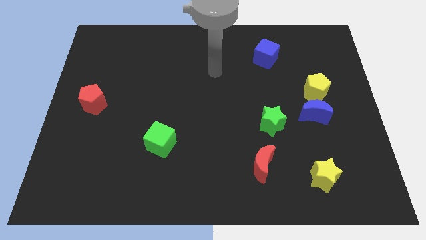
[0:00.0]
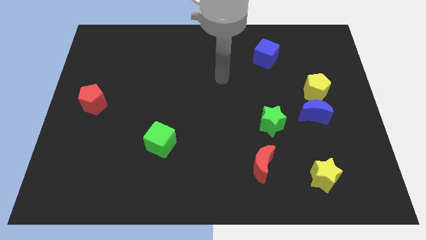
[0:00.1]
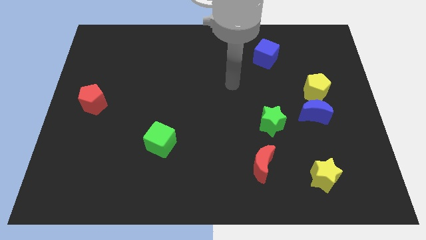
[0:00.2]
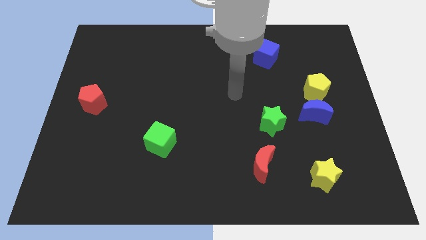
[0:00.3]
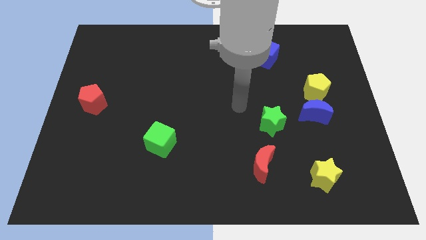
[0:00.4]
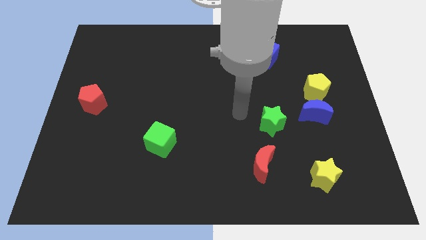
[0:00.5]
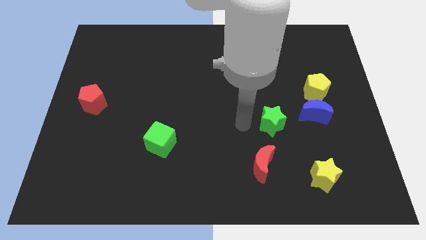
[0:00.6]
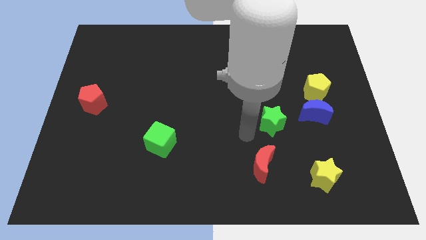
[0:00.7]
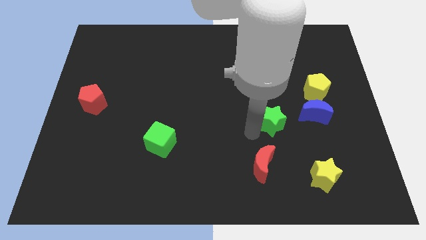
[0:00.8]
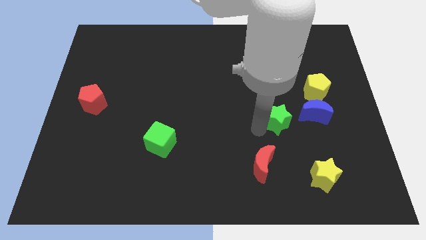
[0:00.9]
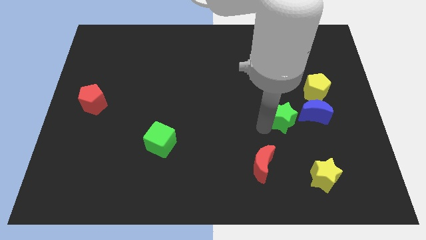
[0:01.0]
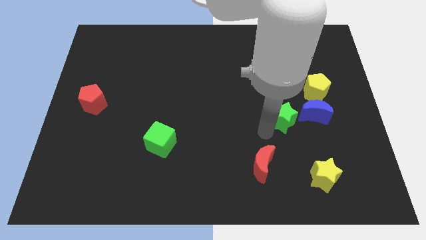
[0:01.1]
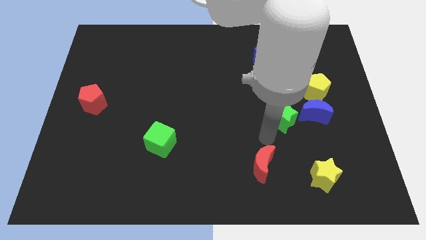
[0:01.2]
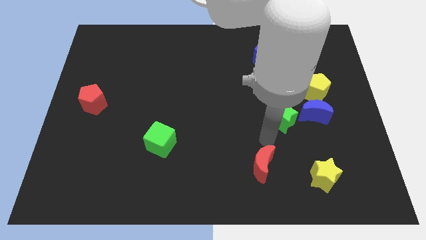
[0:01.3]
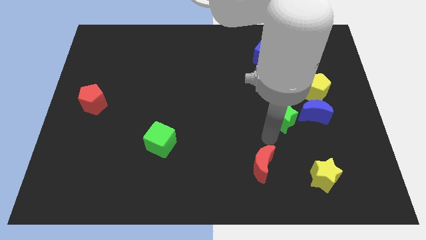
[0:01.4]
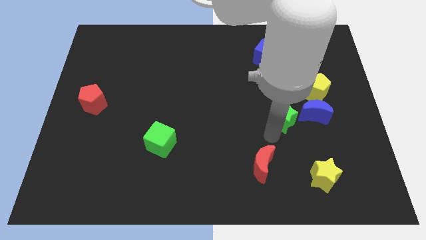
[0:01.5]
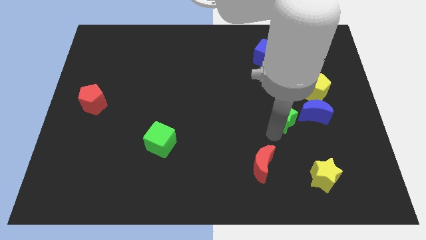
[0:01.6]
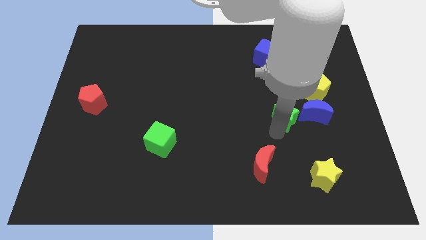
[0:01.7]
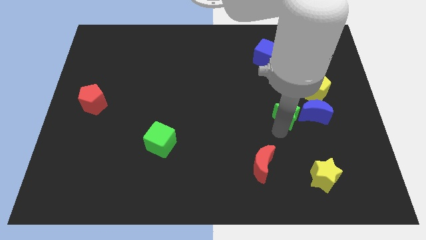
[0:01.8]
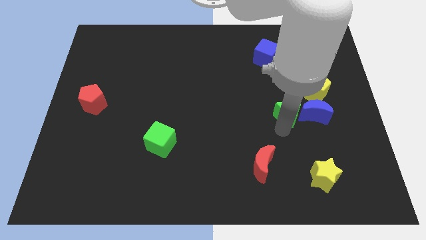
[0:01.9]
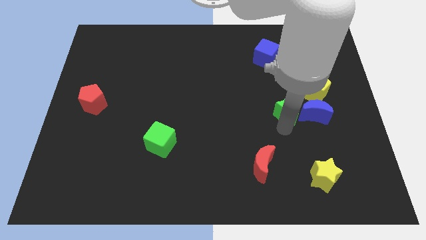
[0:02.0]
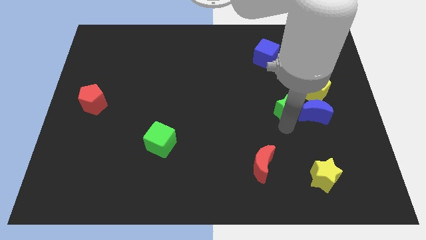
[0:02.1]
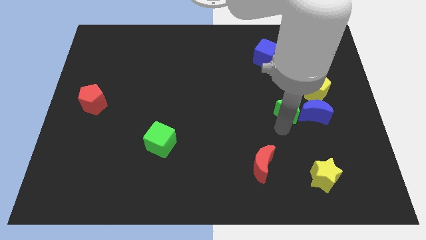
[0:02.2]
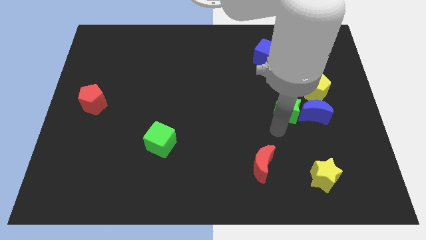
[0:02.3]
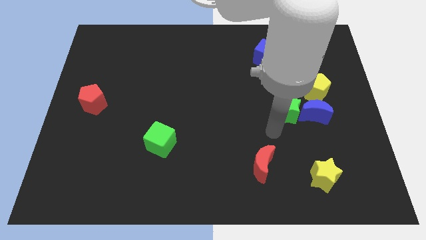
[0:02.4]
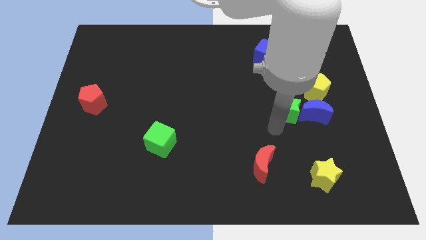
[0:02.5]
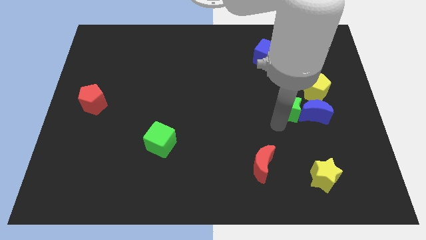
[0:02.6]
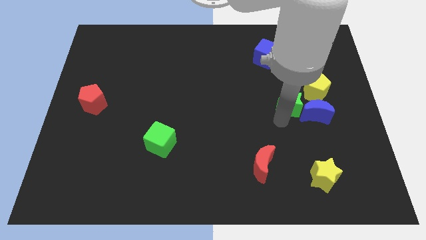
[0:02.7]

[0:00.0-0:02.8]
slightly slide the green star diagonally up and right

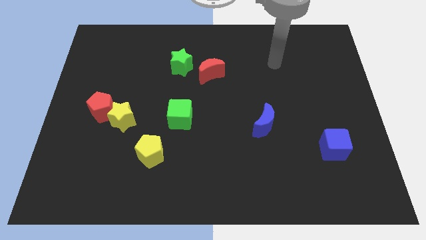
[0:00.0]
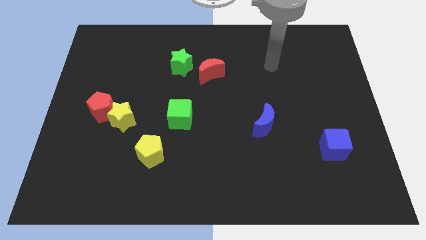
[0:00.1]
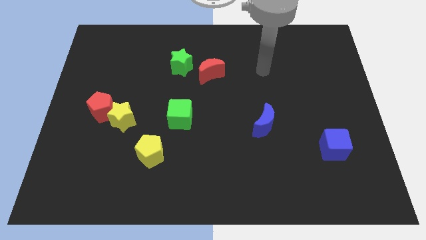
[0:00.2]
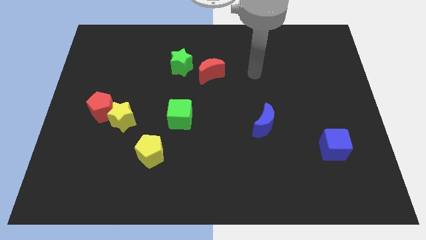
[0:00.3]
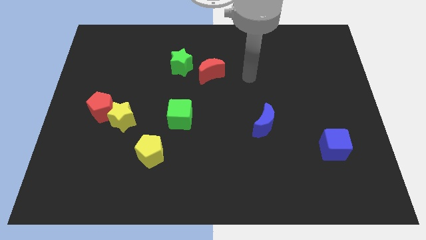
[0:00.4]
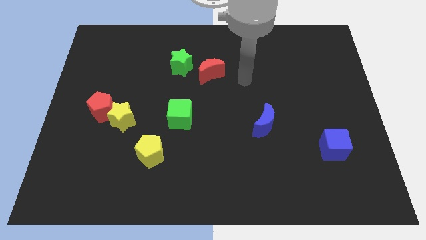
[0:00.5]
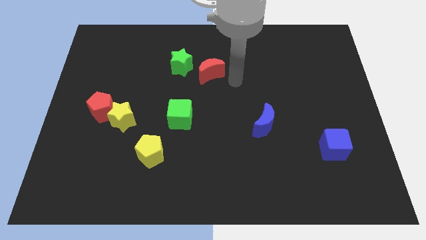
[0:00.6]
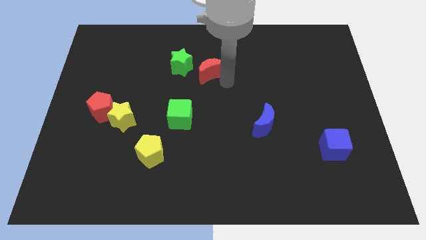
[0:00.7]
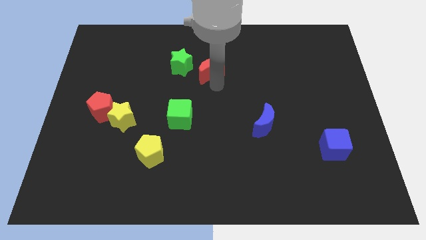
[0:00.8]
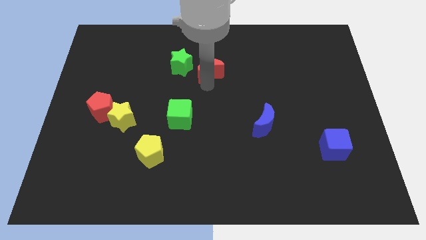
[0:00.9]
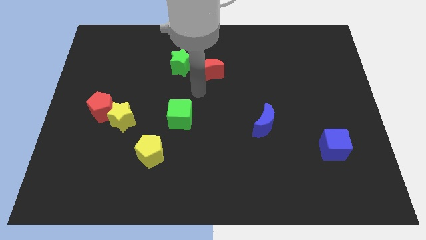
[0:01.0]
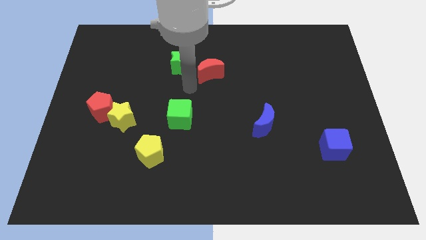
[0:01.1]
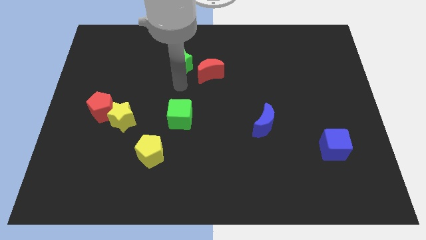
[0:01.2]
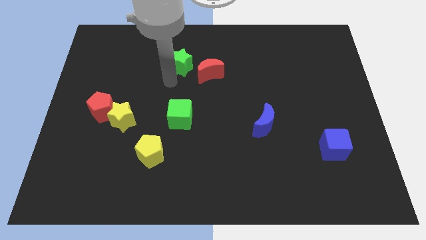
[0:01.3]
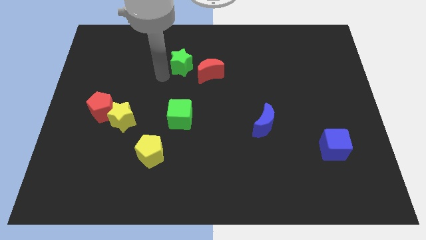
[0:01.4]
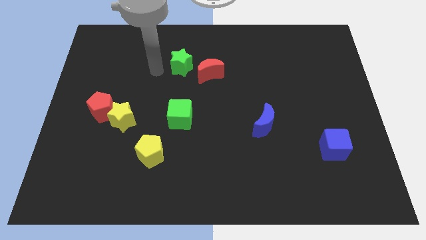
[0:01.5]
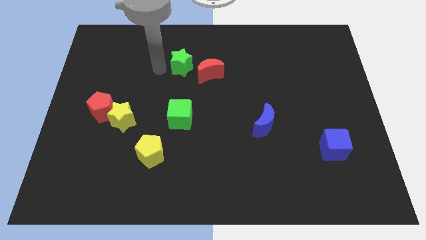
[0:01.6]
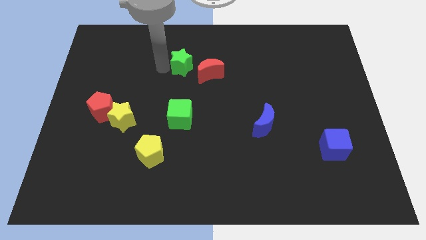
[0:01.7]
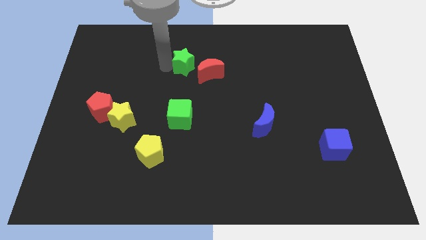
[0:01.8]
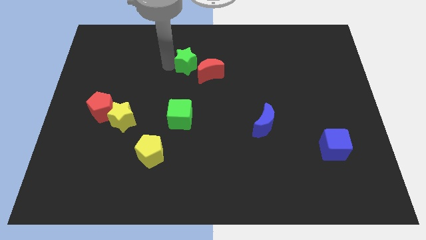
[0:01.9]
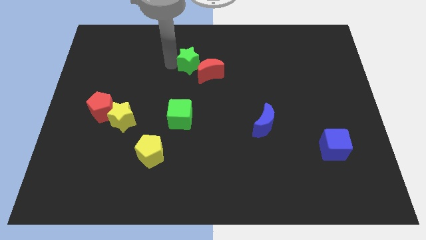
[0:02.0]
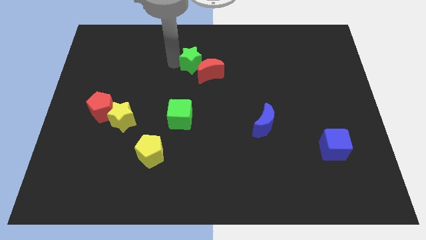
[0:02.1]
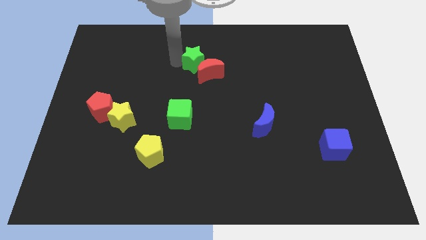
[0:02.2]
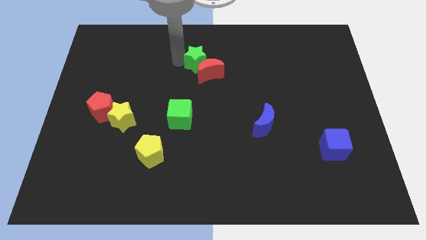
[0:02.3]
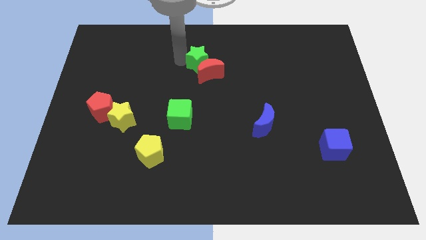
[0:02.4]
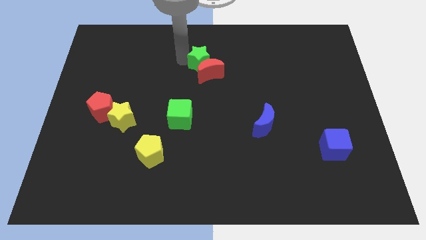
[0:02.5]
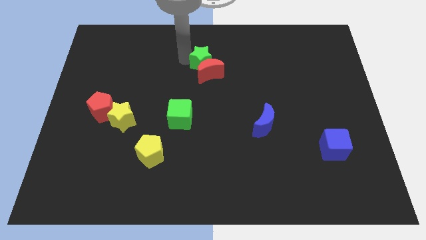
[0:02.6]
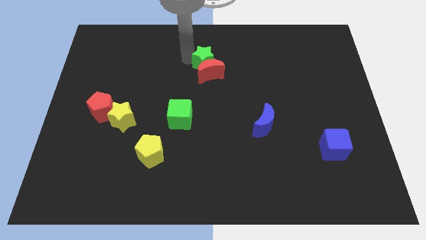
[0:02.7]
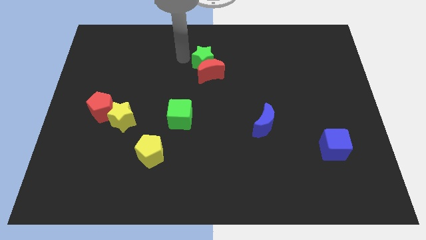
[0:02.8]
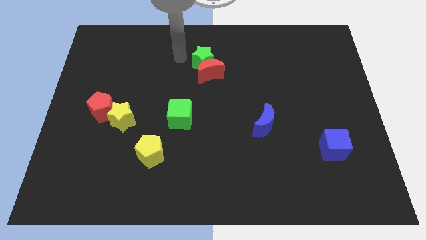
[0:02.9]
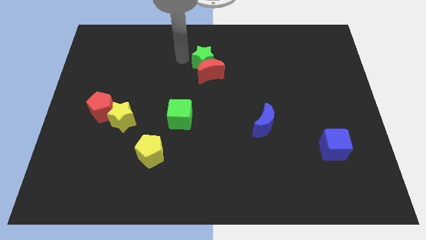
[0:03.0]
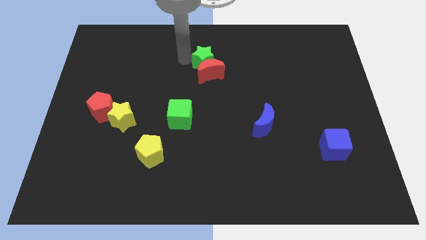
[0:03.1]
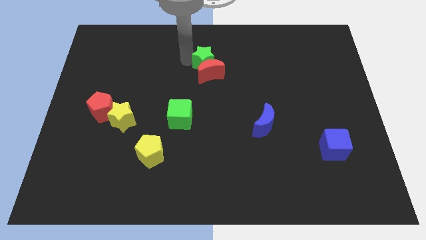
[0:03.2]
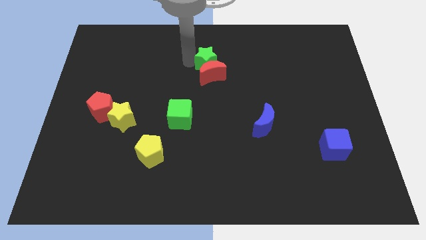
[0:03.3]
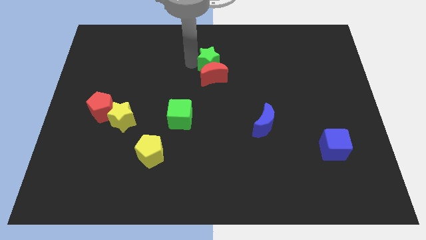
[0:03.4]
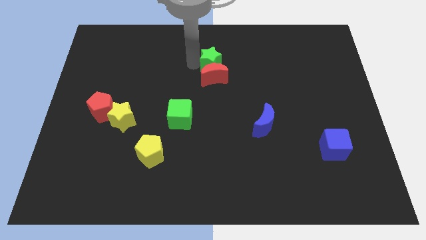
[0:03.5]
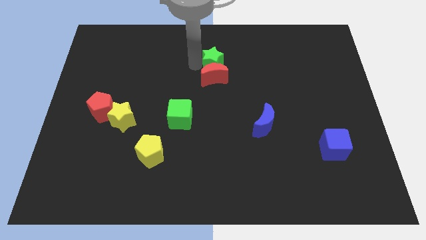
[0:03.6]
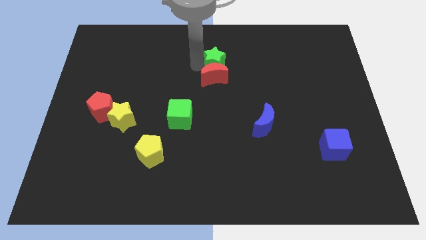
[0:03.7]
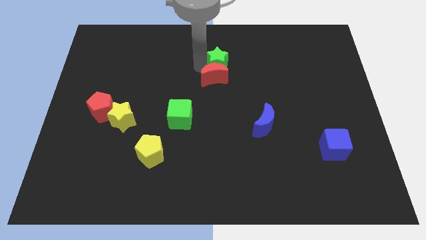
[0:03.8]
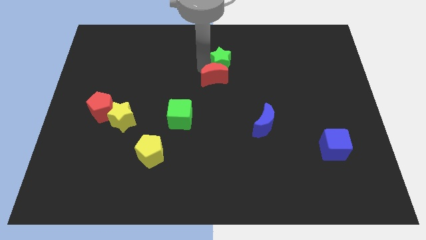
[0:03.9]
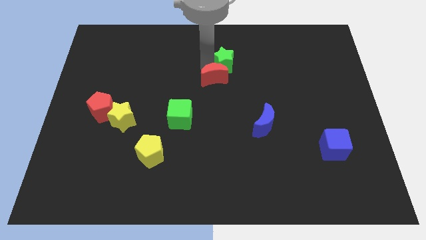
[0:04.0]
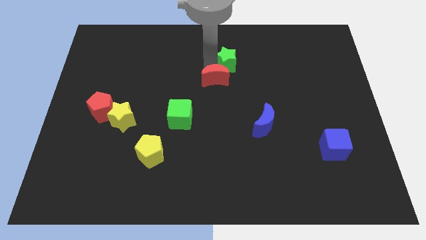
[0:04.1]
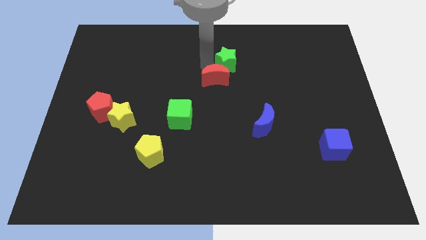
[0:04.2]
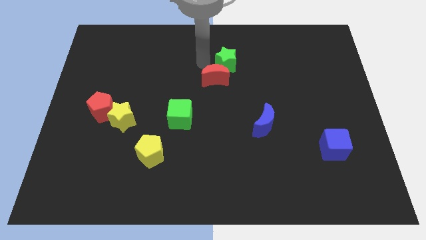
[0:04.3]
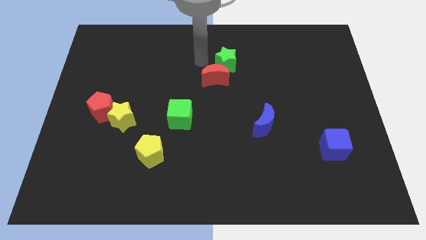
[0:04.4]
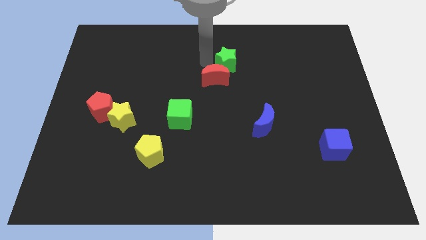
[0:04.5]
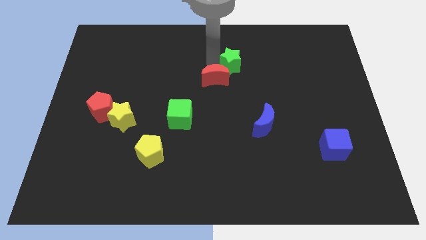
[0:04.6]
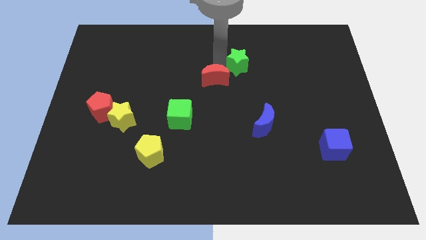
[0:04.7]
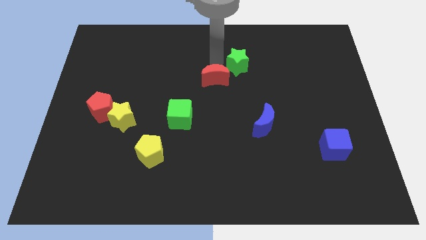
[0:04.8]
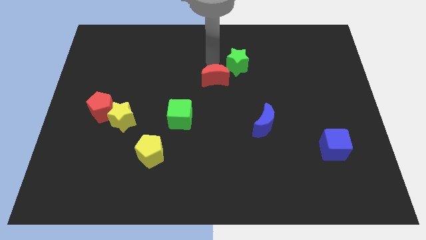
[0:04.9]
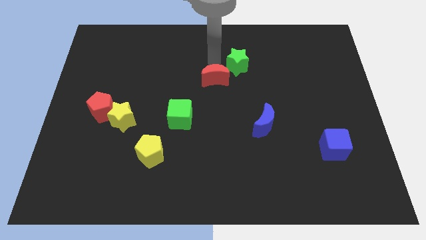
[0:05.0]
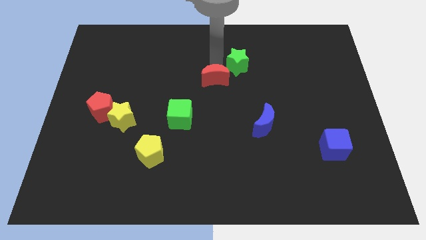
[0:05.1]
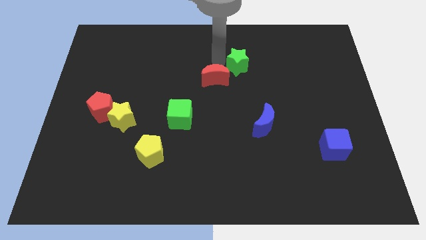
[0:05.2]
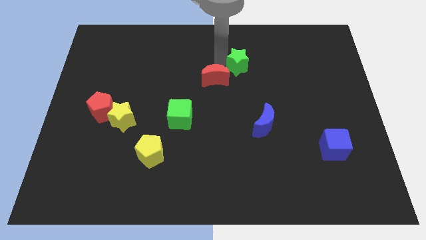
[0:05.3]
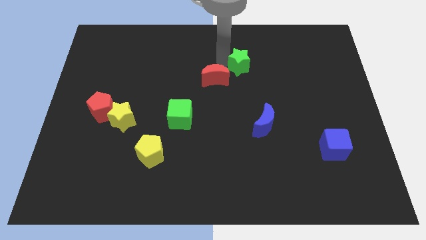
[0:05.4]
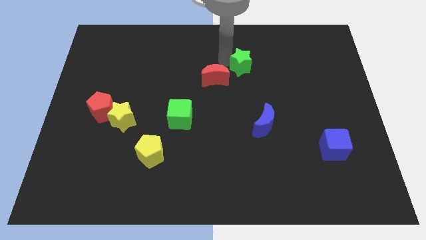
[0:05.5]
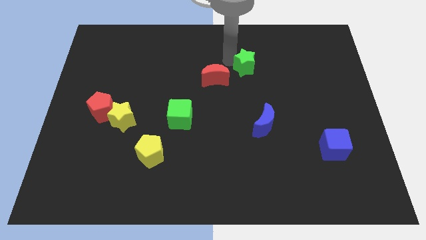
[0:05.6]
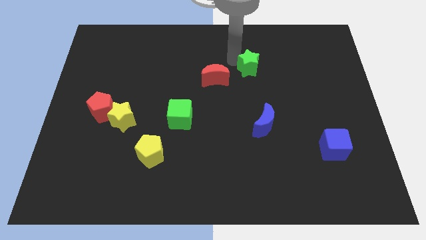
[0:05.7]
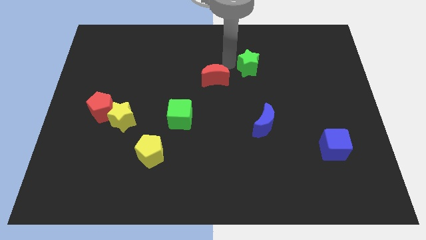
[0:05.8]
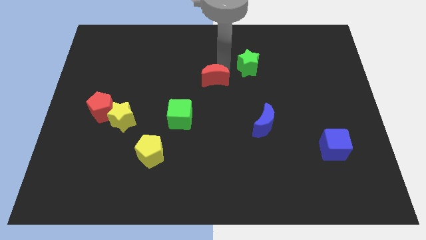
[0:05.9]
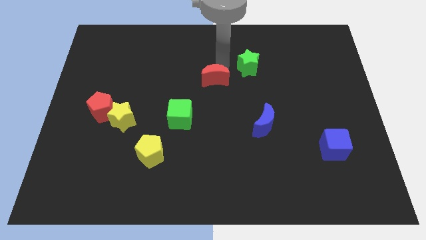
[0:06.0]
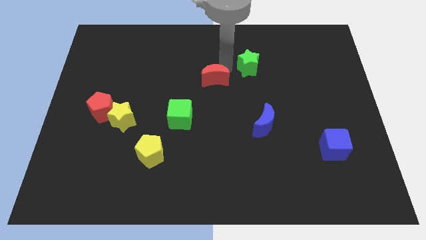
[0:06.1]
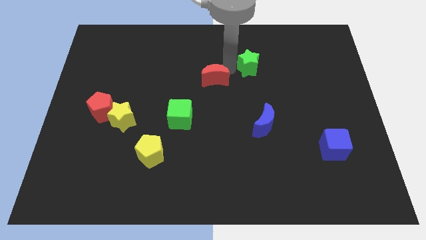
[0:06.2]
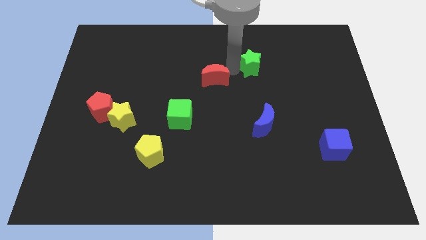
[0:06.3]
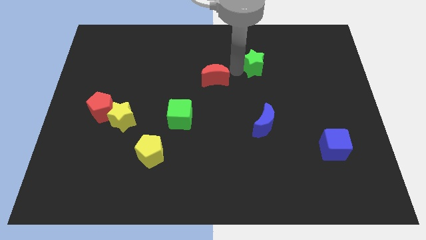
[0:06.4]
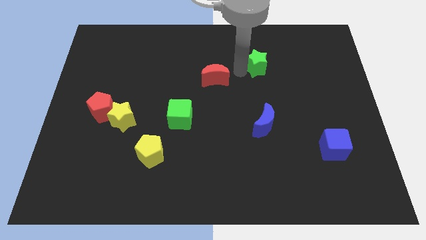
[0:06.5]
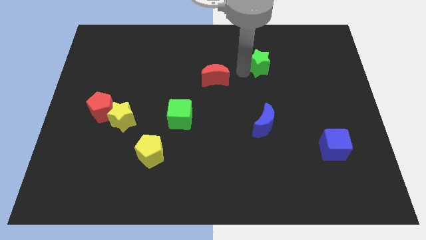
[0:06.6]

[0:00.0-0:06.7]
slide the green star to the right
